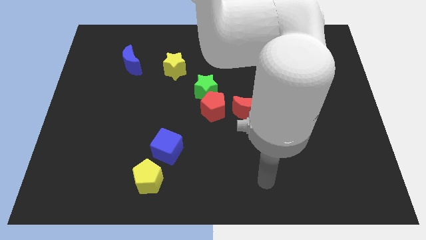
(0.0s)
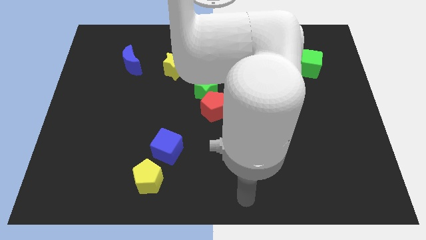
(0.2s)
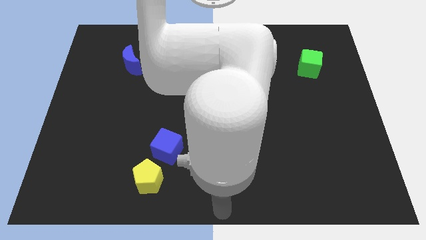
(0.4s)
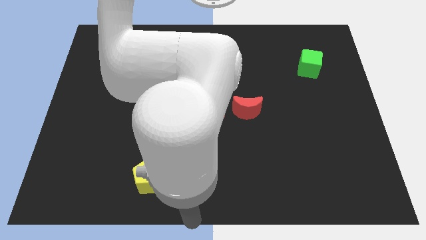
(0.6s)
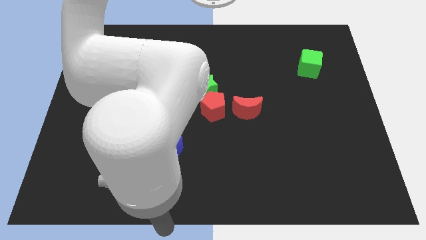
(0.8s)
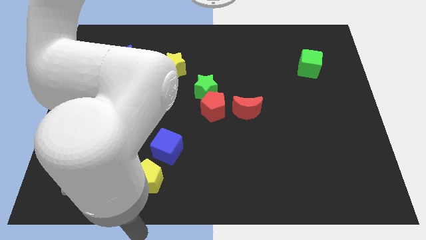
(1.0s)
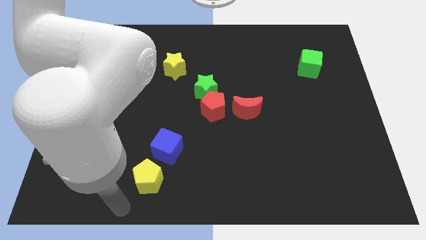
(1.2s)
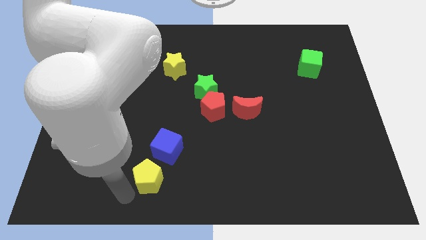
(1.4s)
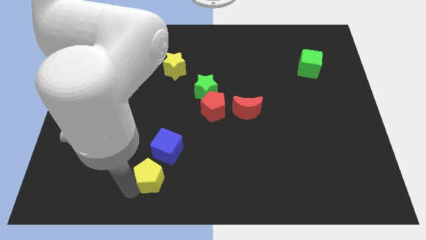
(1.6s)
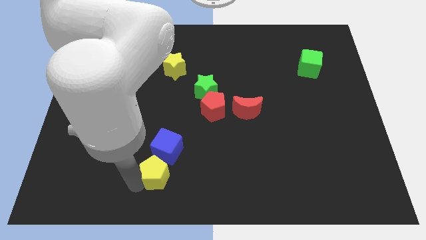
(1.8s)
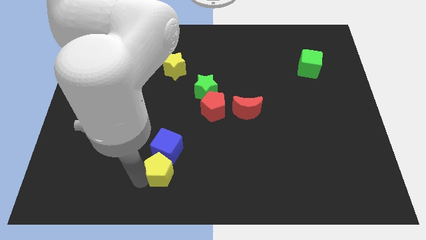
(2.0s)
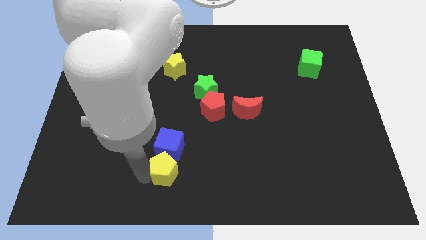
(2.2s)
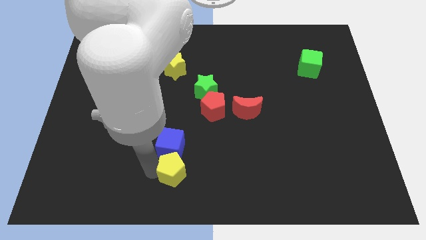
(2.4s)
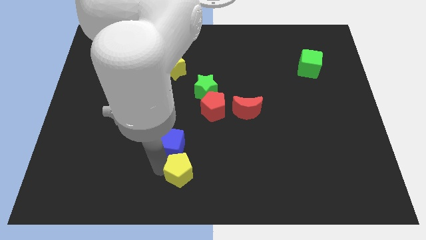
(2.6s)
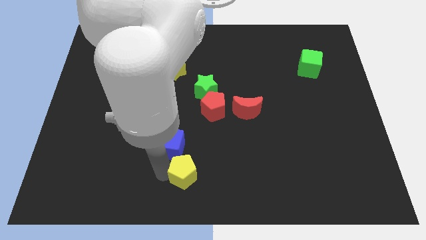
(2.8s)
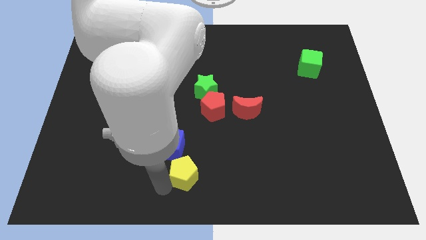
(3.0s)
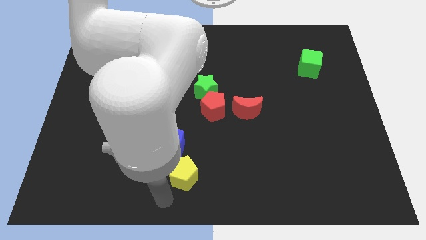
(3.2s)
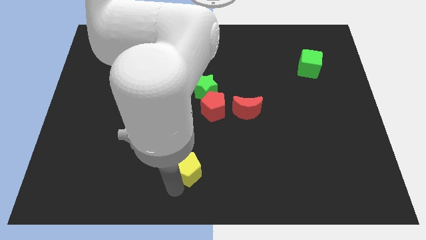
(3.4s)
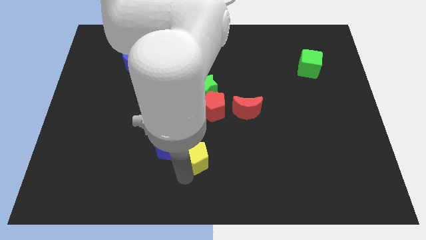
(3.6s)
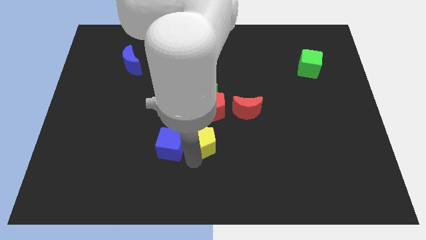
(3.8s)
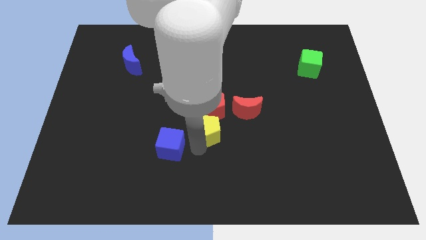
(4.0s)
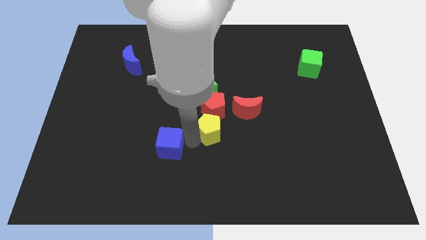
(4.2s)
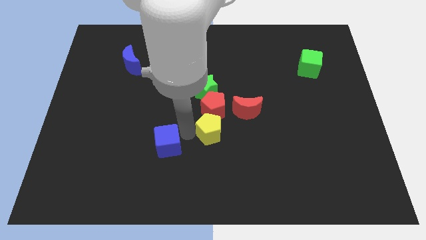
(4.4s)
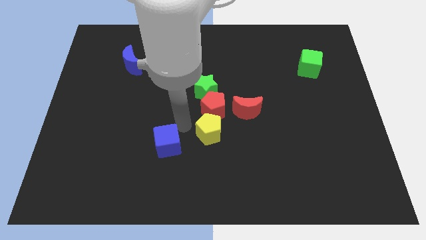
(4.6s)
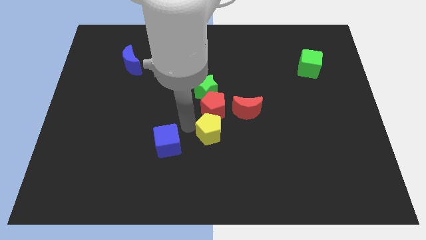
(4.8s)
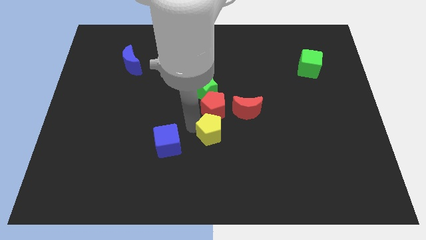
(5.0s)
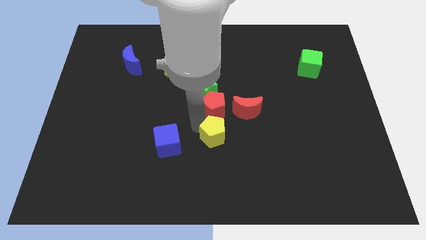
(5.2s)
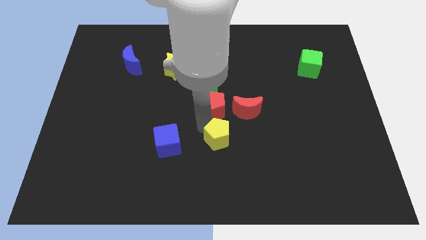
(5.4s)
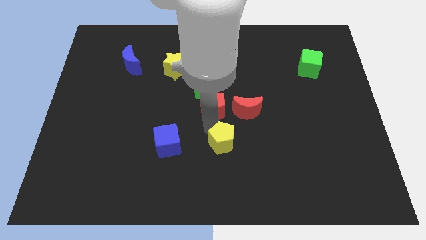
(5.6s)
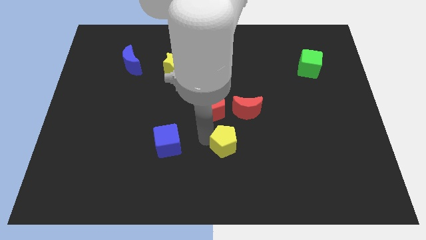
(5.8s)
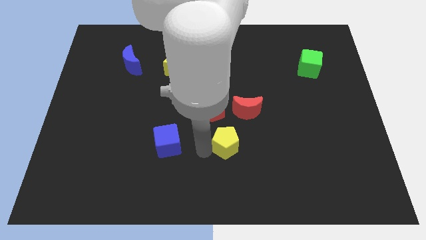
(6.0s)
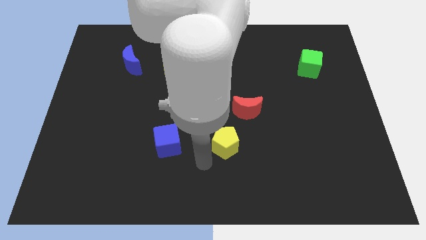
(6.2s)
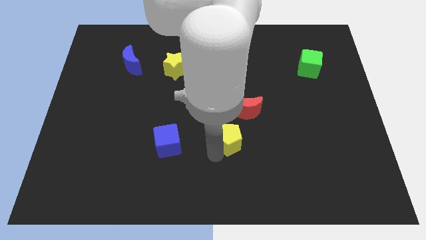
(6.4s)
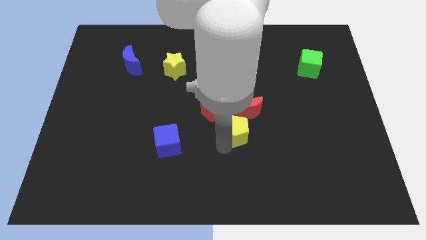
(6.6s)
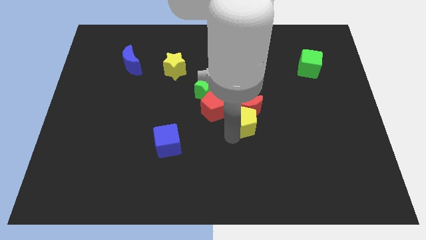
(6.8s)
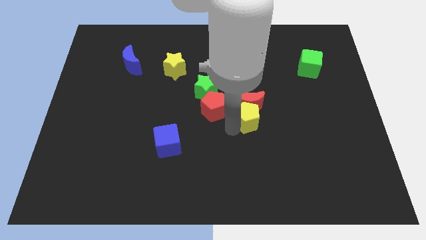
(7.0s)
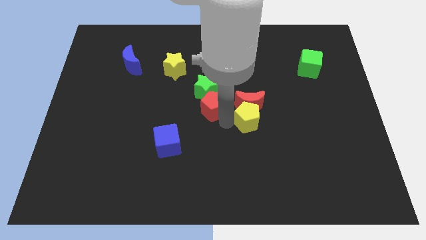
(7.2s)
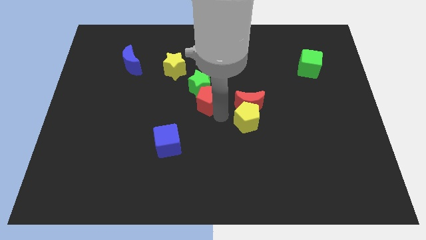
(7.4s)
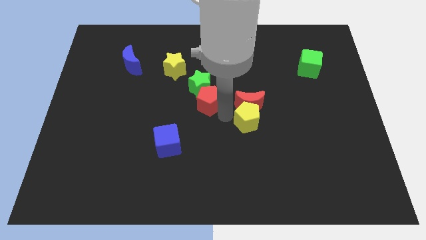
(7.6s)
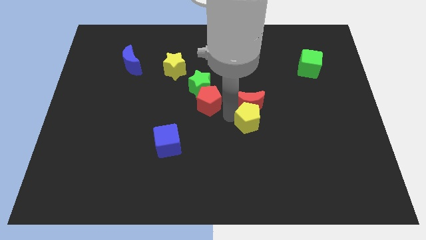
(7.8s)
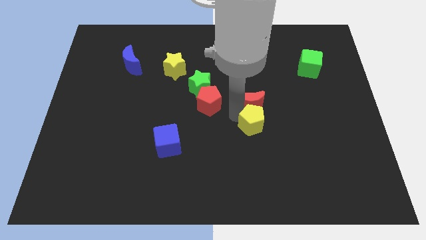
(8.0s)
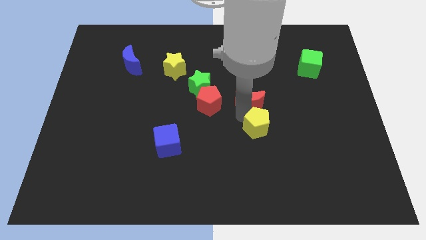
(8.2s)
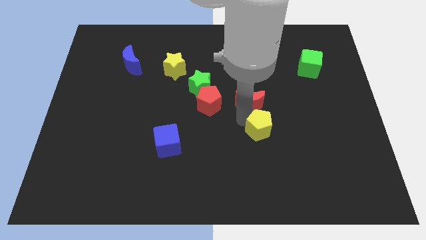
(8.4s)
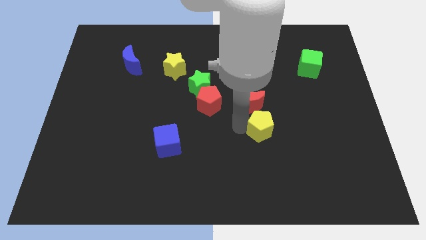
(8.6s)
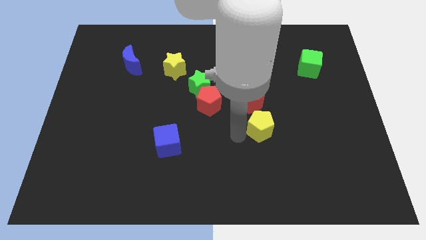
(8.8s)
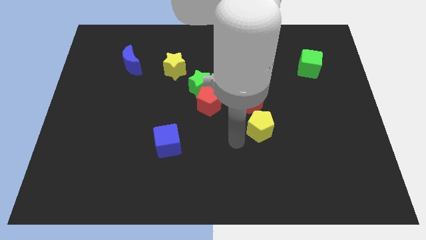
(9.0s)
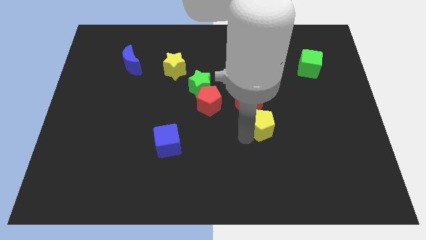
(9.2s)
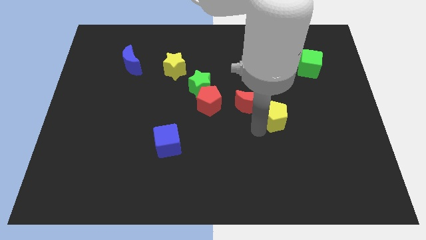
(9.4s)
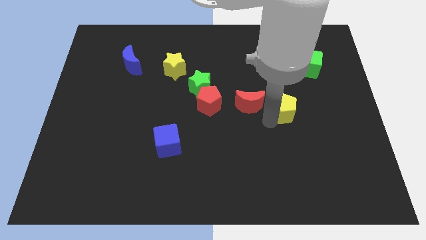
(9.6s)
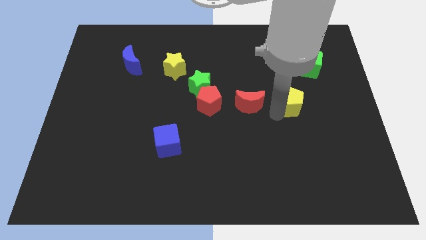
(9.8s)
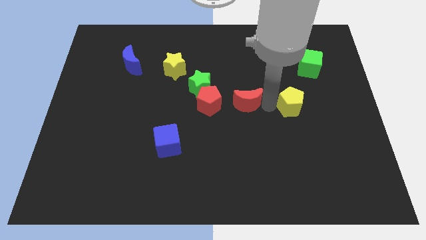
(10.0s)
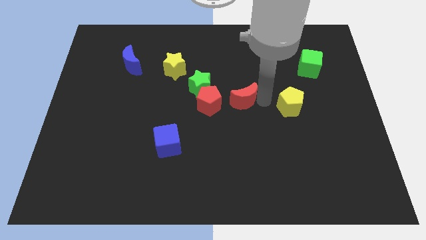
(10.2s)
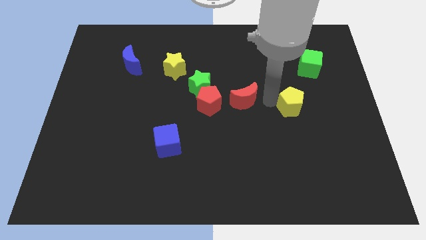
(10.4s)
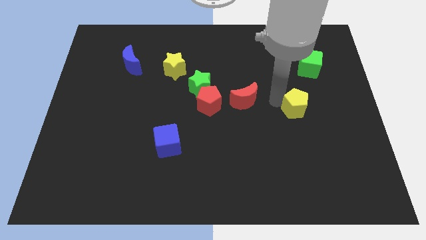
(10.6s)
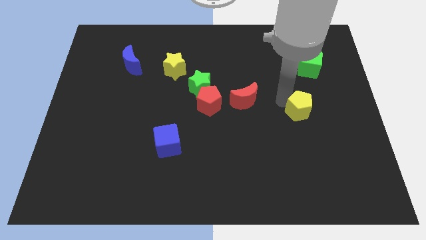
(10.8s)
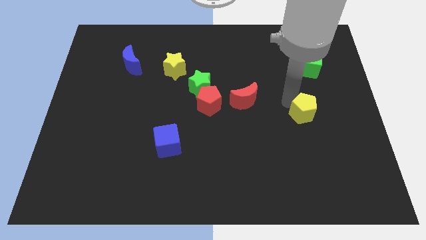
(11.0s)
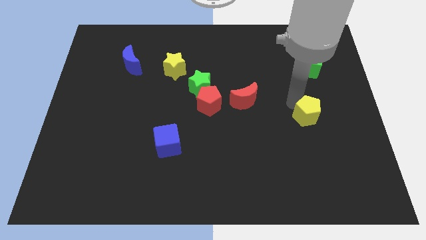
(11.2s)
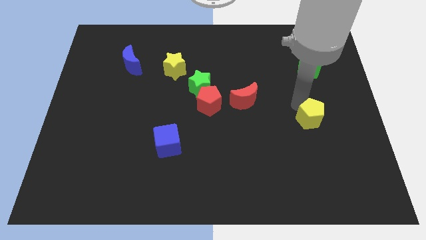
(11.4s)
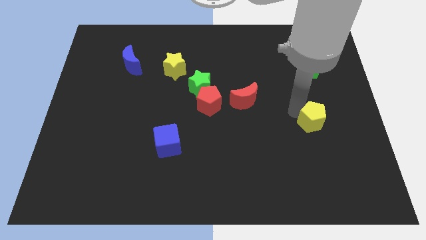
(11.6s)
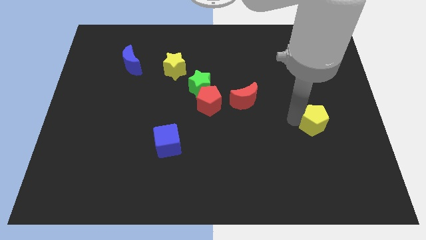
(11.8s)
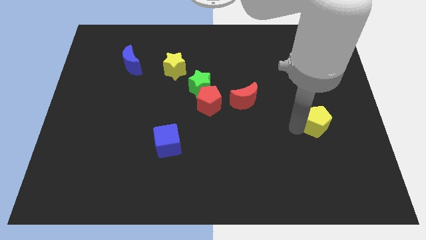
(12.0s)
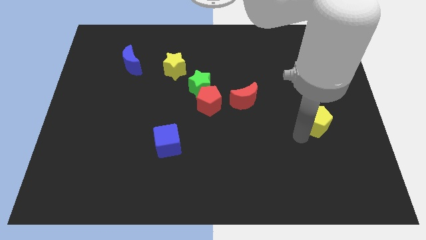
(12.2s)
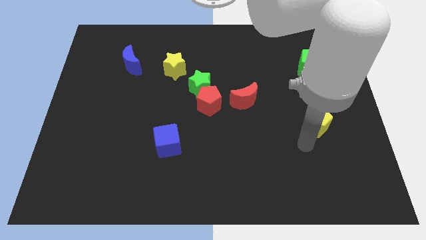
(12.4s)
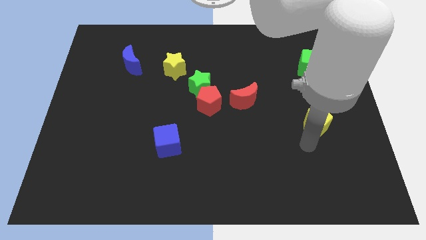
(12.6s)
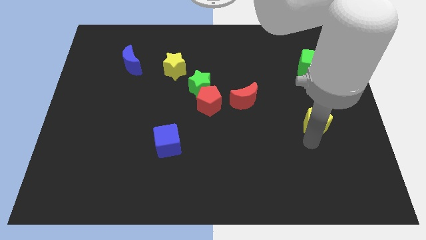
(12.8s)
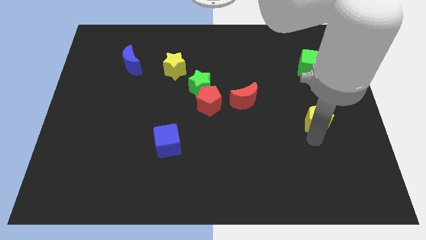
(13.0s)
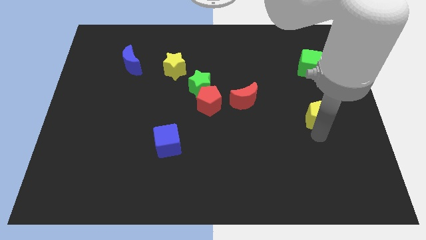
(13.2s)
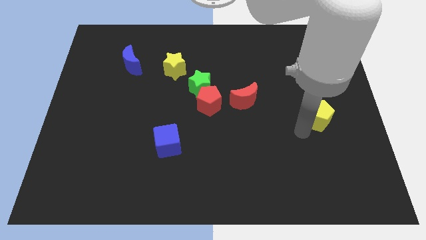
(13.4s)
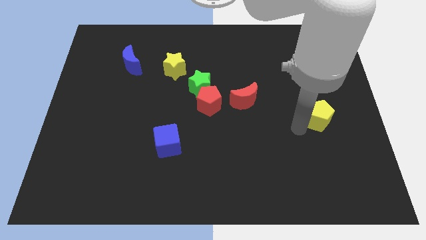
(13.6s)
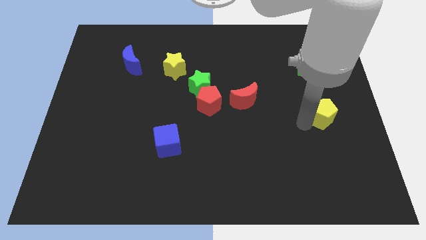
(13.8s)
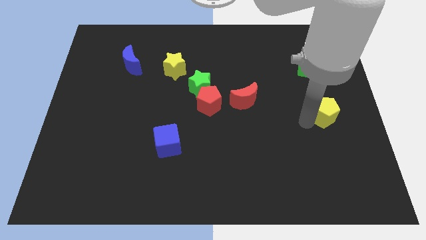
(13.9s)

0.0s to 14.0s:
move the yellow pentagon to the right side of the board

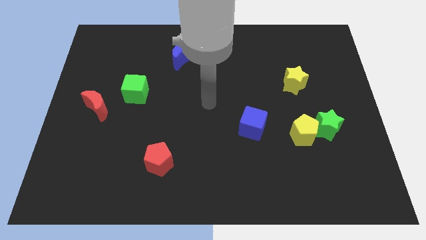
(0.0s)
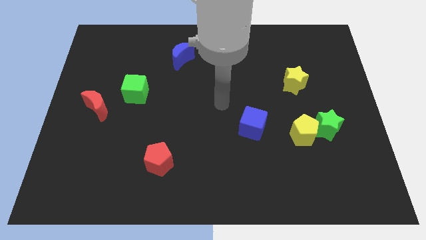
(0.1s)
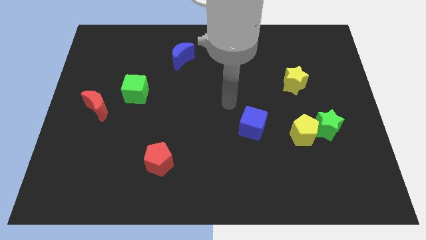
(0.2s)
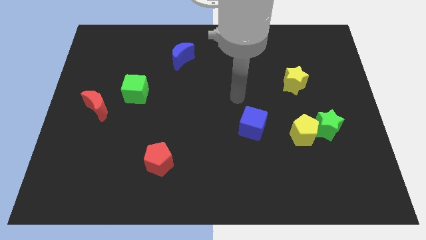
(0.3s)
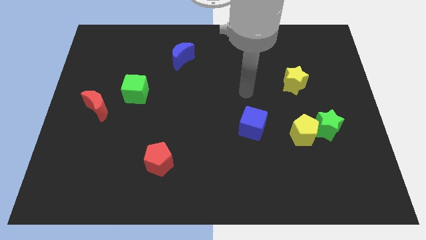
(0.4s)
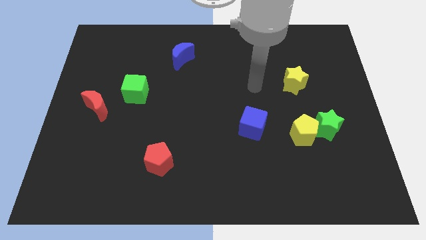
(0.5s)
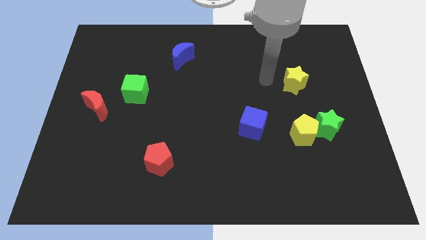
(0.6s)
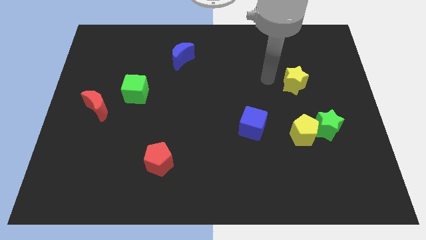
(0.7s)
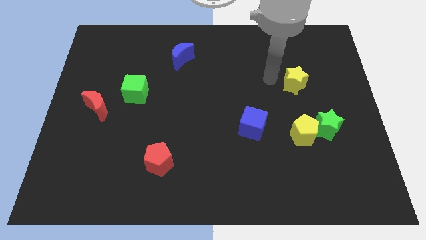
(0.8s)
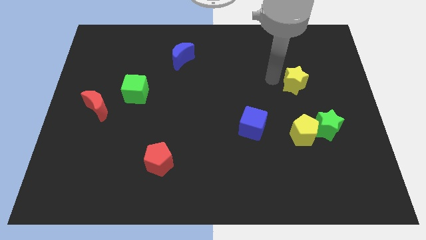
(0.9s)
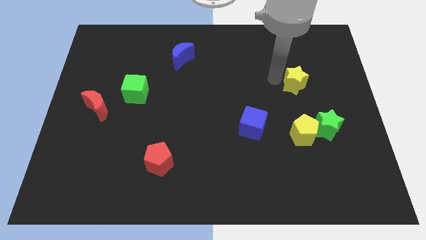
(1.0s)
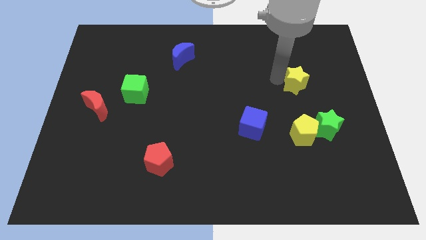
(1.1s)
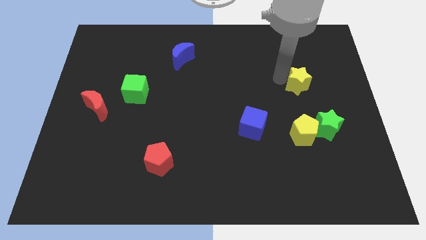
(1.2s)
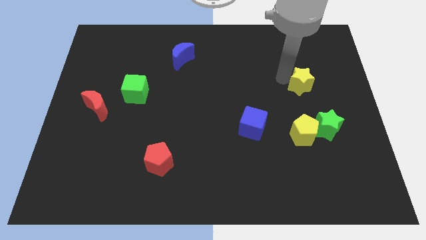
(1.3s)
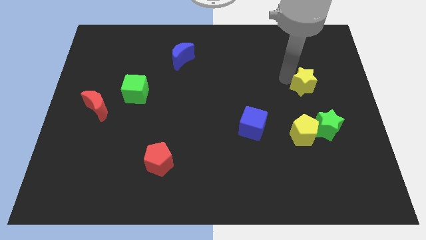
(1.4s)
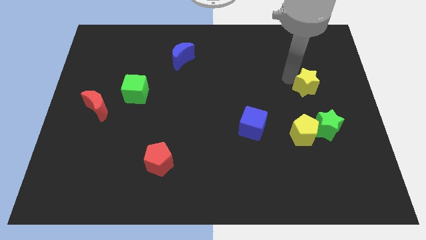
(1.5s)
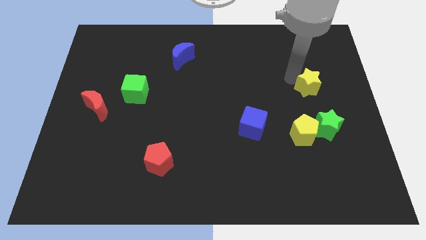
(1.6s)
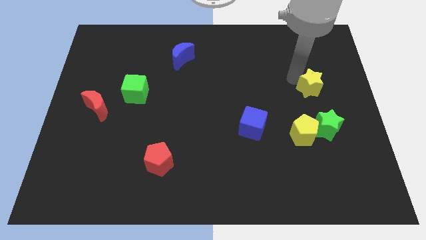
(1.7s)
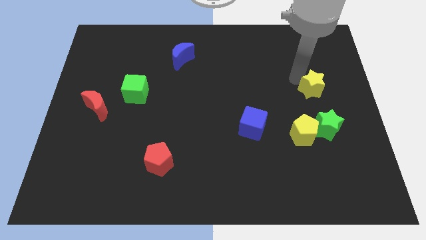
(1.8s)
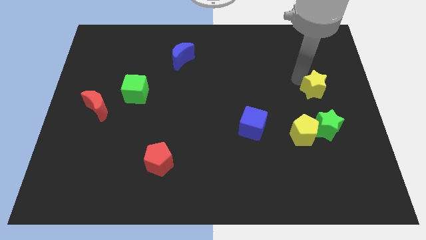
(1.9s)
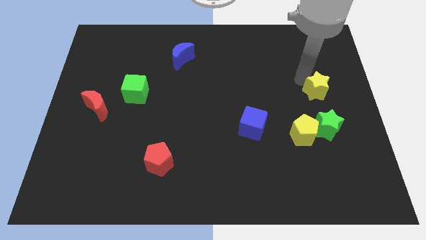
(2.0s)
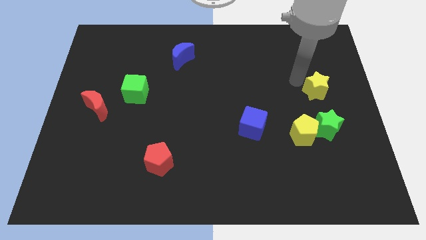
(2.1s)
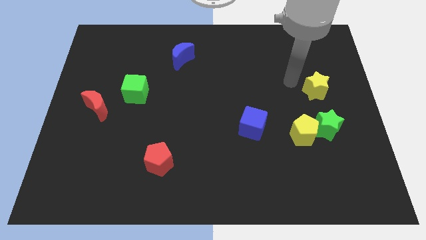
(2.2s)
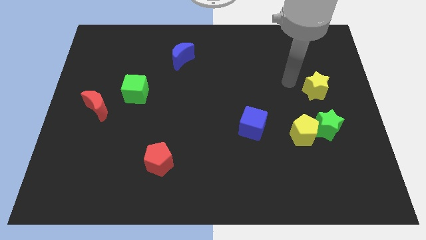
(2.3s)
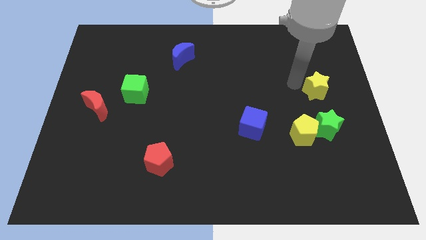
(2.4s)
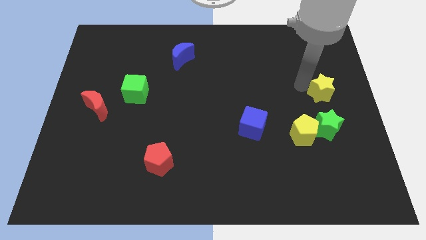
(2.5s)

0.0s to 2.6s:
put the yellow star to the right side of the board
